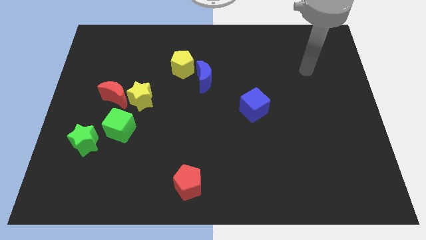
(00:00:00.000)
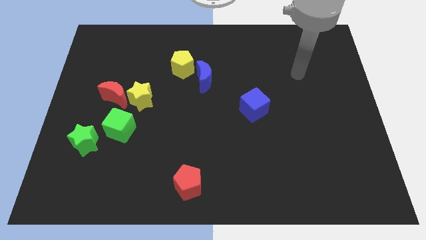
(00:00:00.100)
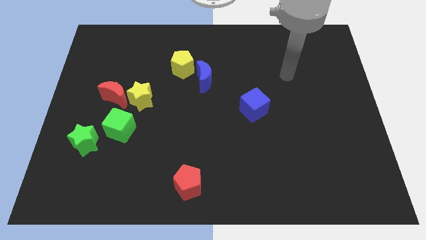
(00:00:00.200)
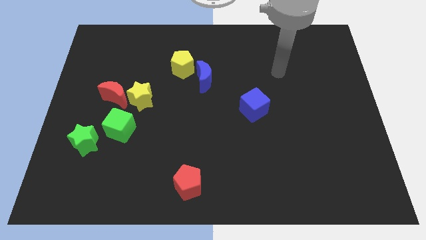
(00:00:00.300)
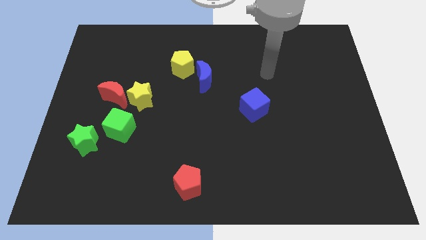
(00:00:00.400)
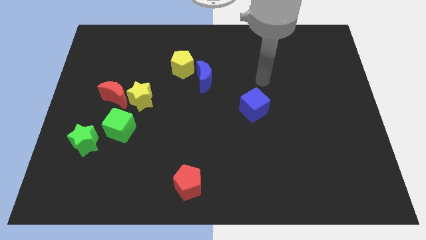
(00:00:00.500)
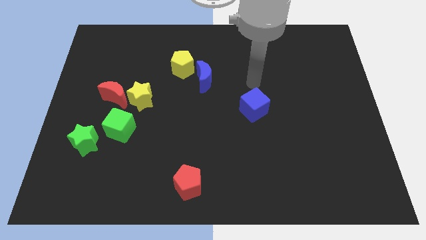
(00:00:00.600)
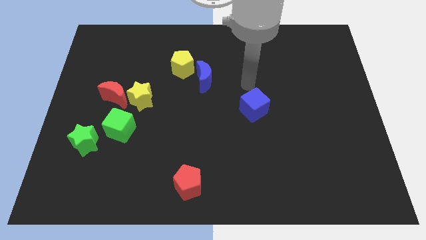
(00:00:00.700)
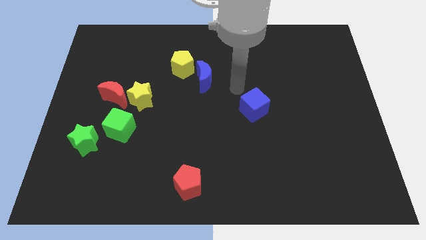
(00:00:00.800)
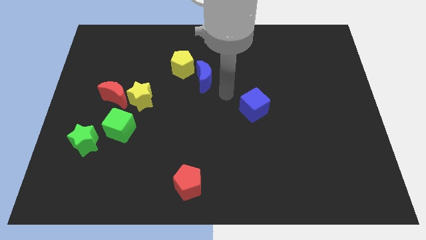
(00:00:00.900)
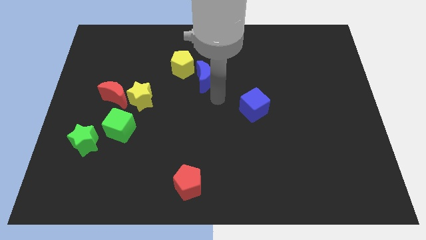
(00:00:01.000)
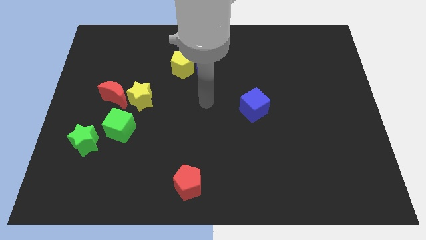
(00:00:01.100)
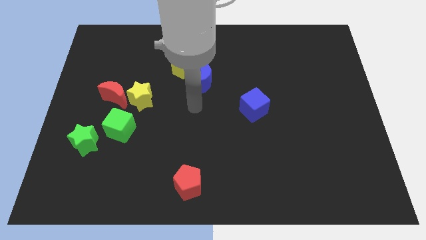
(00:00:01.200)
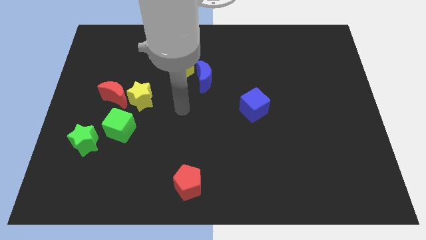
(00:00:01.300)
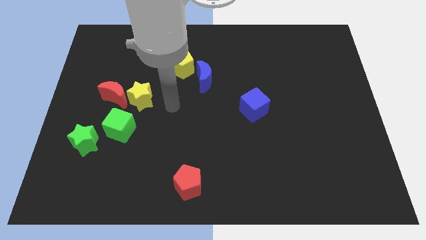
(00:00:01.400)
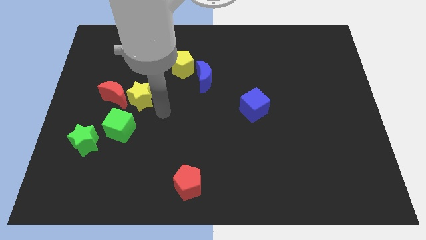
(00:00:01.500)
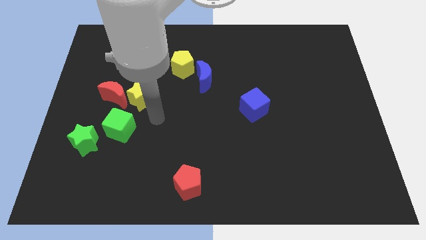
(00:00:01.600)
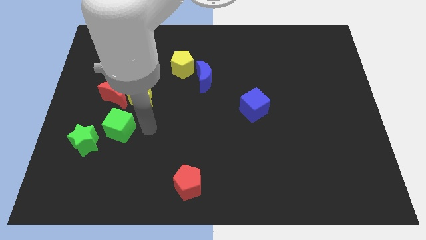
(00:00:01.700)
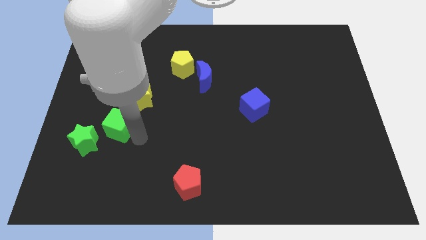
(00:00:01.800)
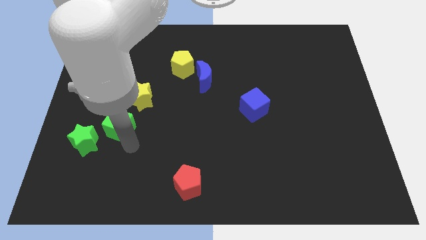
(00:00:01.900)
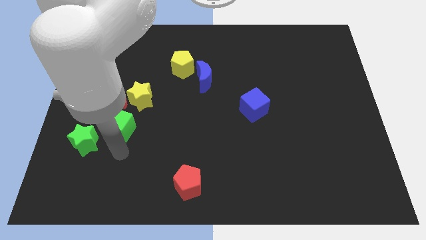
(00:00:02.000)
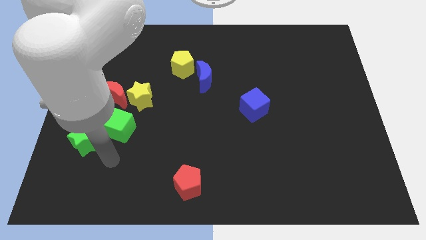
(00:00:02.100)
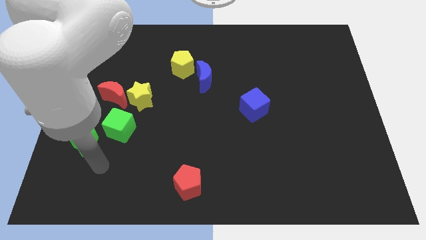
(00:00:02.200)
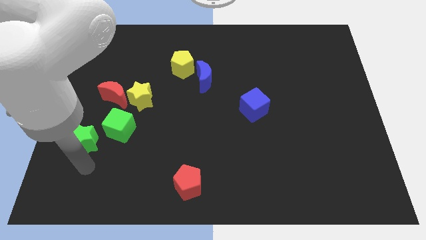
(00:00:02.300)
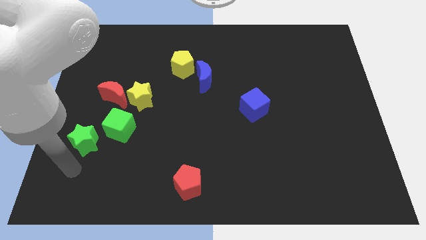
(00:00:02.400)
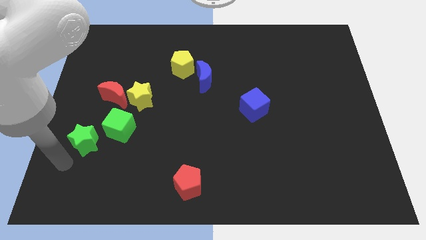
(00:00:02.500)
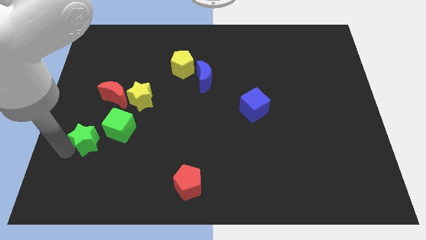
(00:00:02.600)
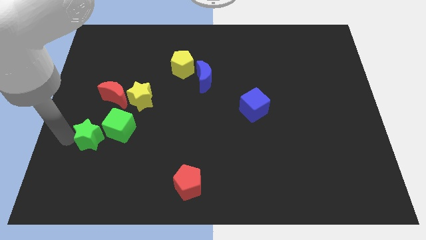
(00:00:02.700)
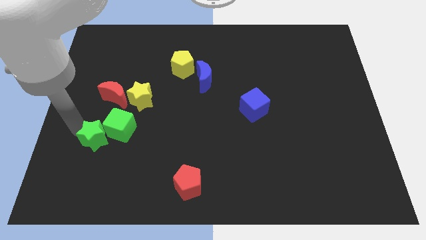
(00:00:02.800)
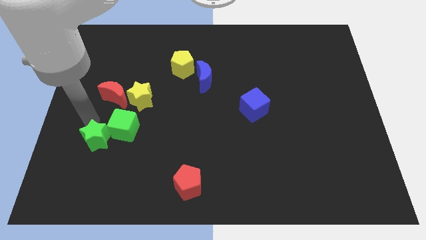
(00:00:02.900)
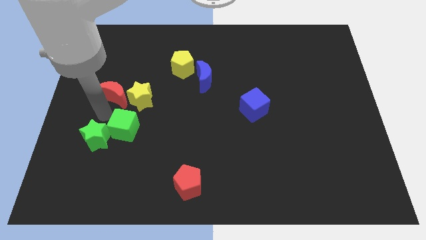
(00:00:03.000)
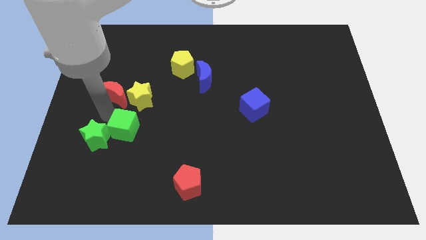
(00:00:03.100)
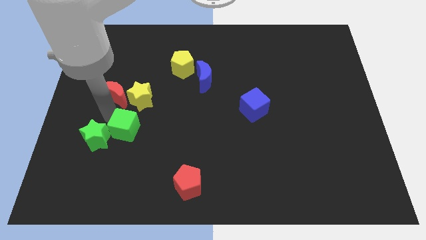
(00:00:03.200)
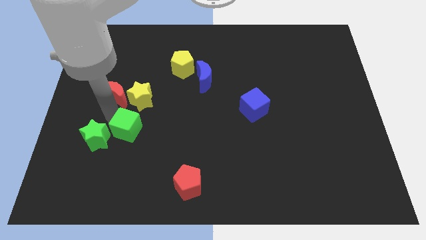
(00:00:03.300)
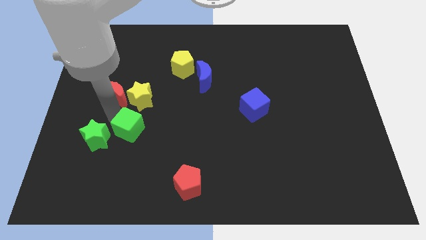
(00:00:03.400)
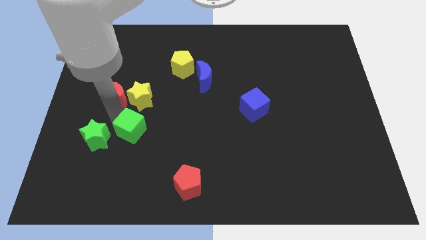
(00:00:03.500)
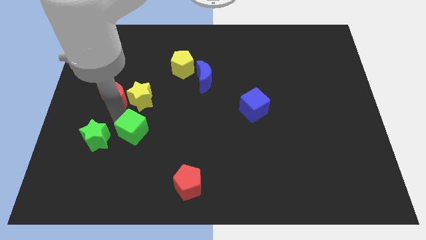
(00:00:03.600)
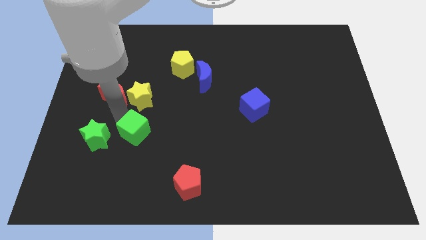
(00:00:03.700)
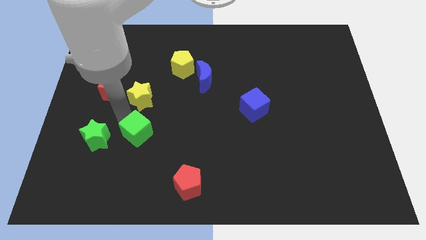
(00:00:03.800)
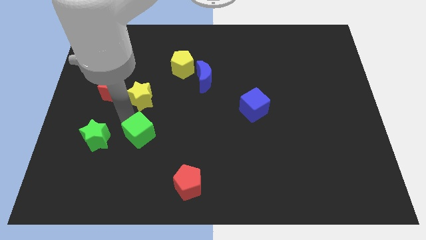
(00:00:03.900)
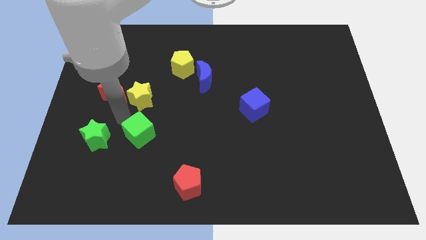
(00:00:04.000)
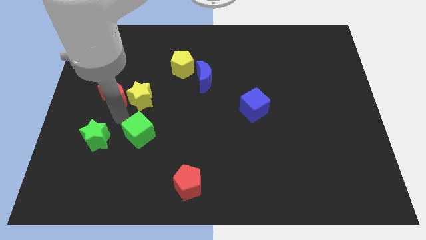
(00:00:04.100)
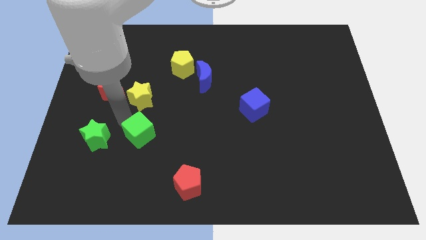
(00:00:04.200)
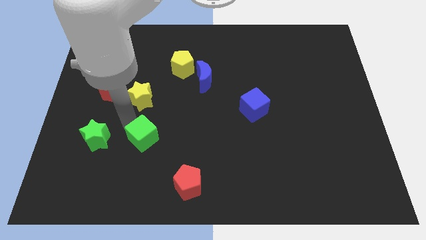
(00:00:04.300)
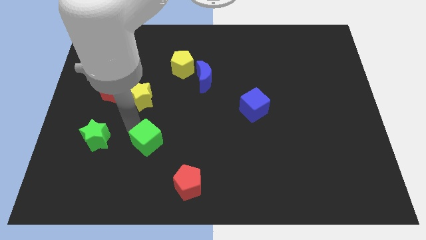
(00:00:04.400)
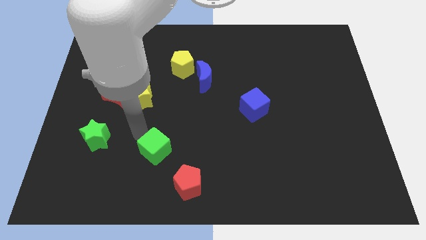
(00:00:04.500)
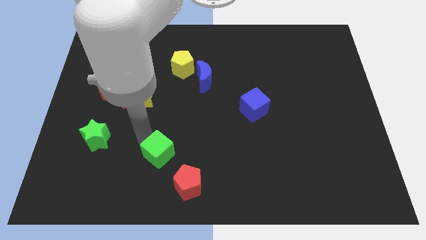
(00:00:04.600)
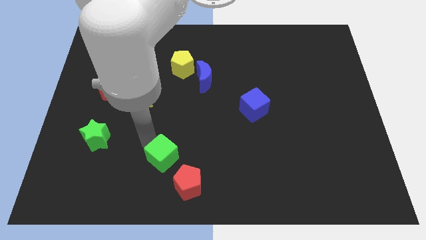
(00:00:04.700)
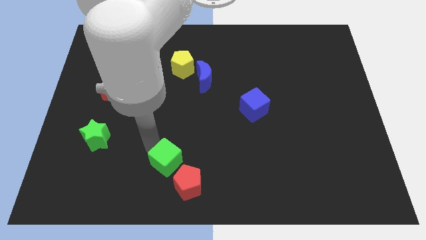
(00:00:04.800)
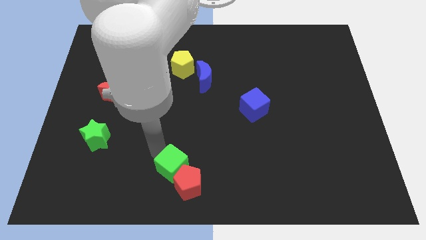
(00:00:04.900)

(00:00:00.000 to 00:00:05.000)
push the green cube next to the red pentagon

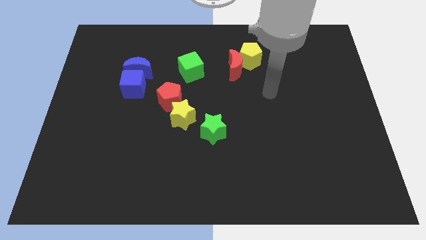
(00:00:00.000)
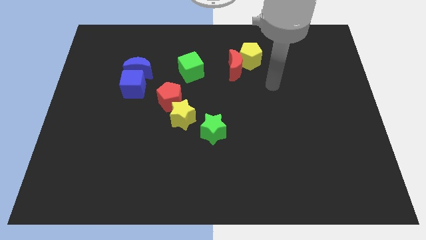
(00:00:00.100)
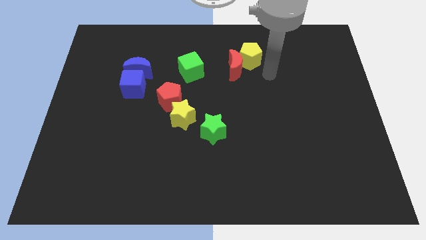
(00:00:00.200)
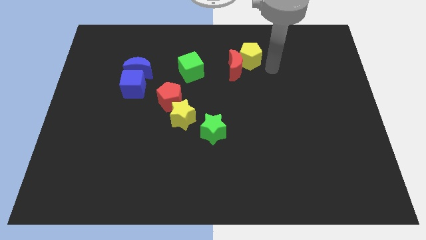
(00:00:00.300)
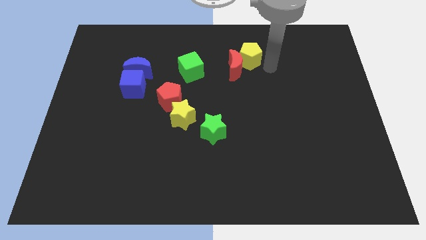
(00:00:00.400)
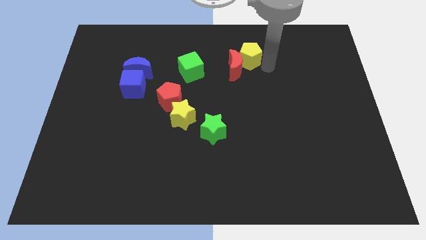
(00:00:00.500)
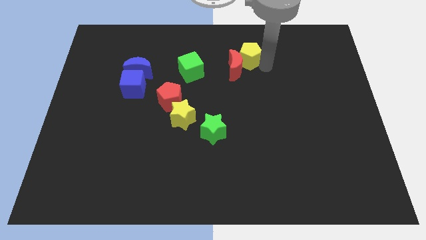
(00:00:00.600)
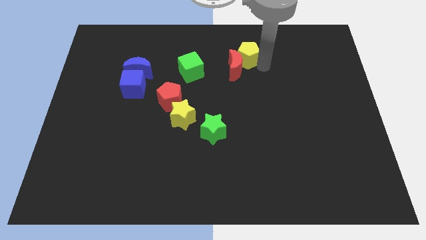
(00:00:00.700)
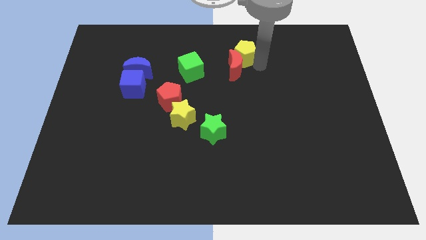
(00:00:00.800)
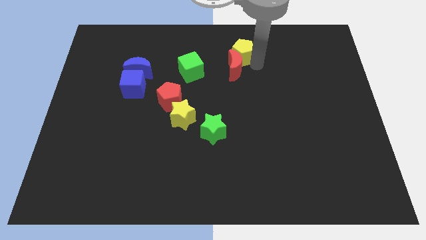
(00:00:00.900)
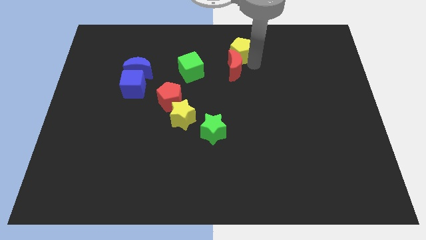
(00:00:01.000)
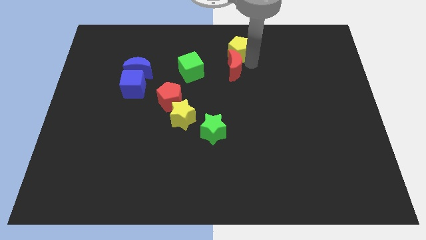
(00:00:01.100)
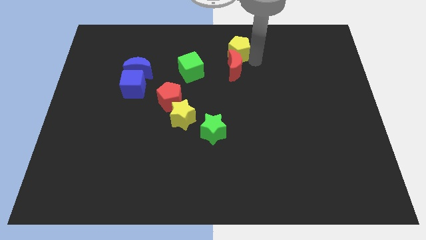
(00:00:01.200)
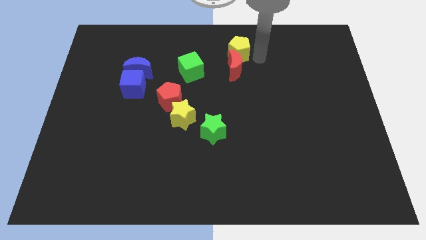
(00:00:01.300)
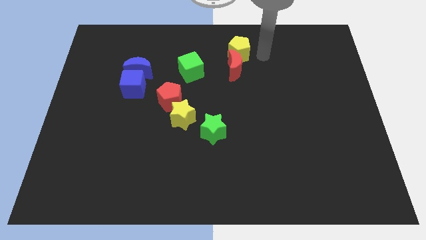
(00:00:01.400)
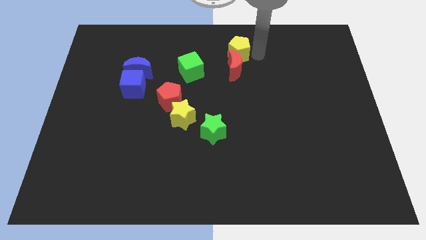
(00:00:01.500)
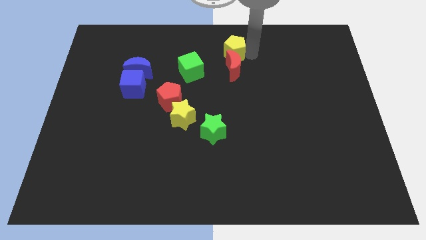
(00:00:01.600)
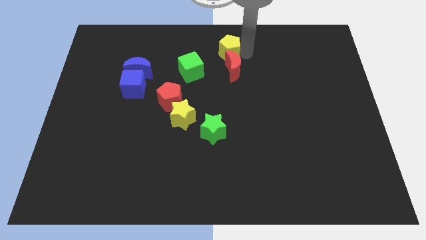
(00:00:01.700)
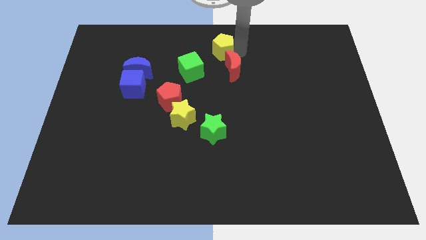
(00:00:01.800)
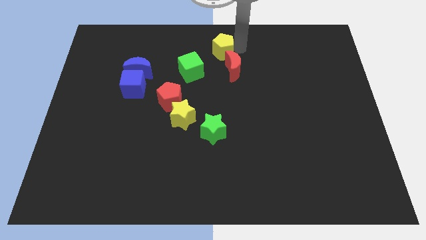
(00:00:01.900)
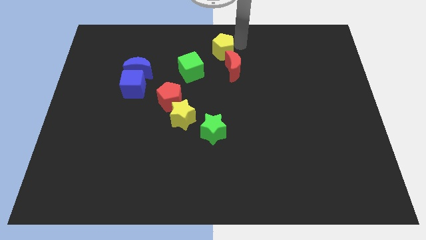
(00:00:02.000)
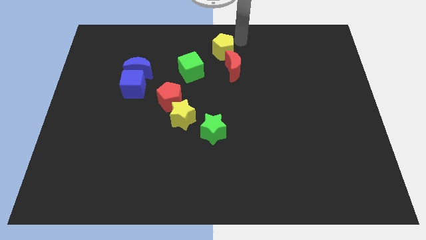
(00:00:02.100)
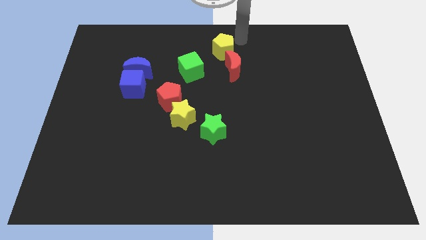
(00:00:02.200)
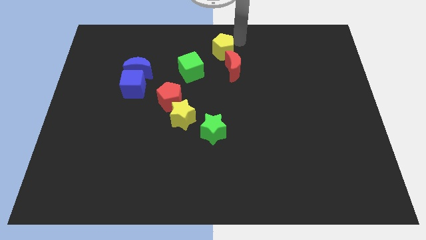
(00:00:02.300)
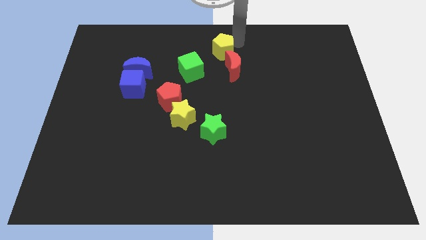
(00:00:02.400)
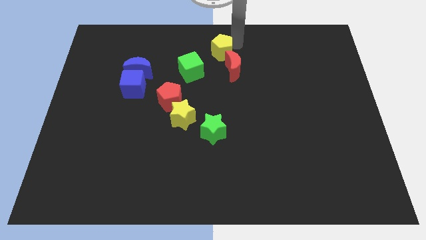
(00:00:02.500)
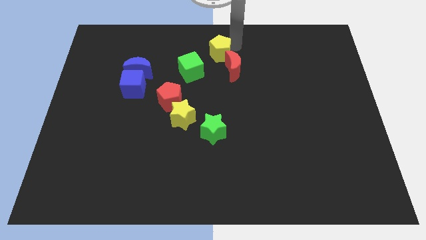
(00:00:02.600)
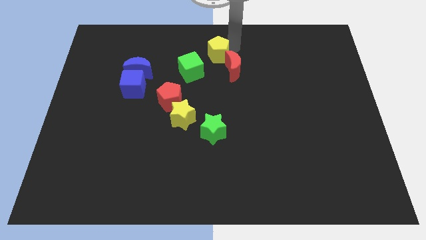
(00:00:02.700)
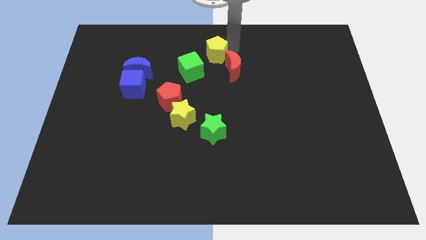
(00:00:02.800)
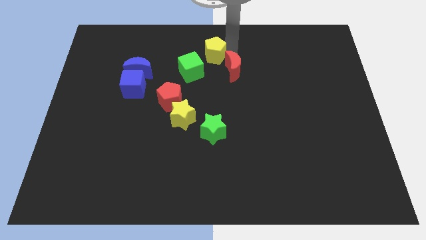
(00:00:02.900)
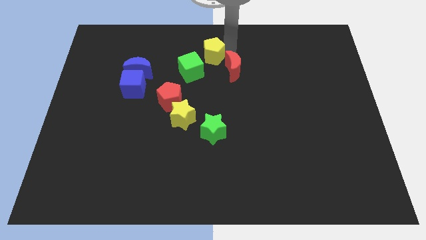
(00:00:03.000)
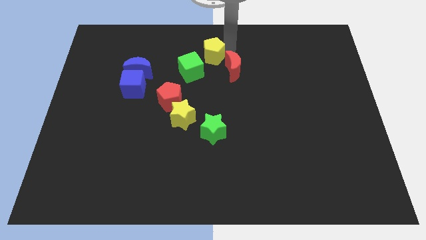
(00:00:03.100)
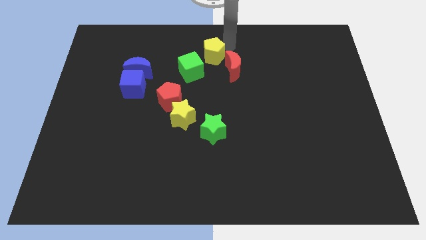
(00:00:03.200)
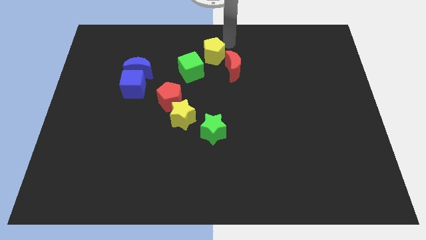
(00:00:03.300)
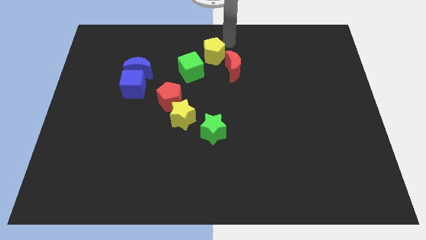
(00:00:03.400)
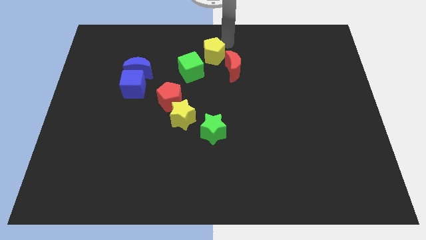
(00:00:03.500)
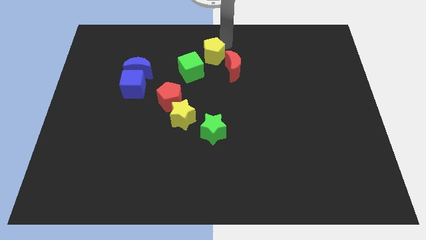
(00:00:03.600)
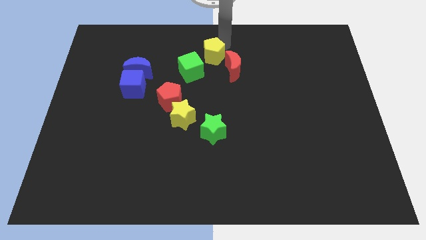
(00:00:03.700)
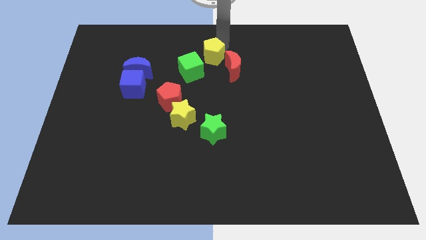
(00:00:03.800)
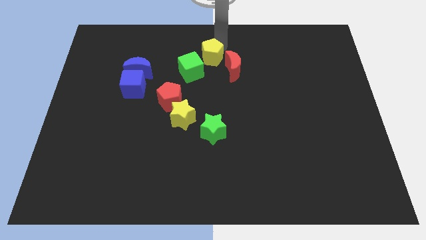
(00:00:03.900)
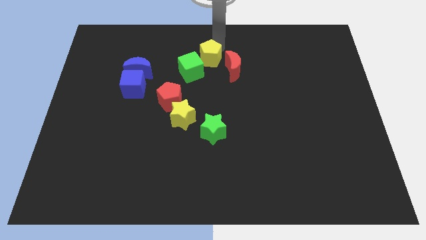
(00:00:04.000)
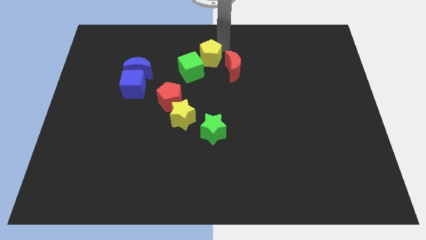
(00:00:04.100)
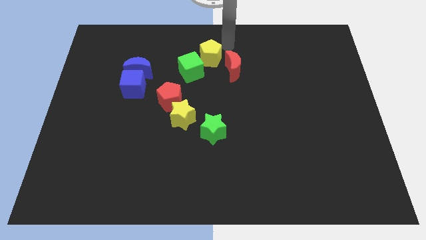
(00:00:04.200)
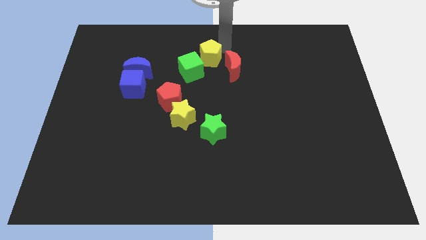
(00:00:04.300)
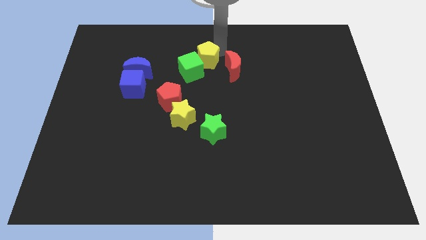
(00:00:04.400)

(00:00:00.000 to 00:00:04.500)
slide the yellow pentagon towards the green cube
